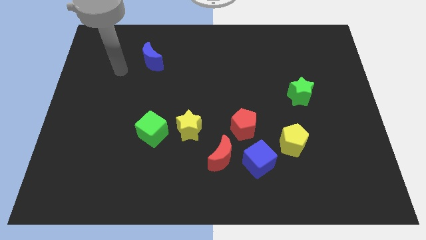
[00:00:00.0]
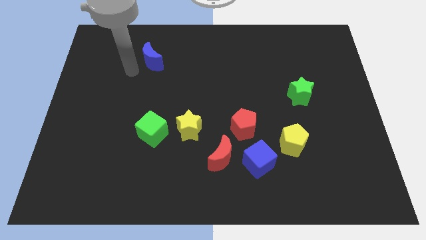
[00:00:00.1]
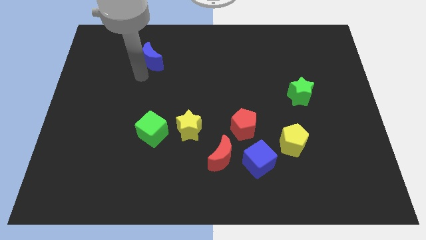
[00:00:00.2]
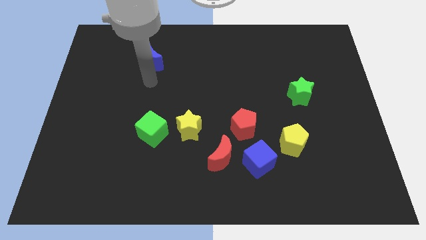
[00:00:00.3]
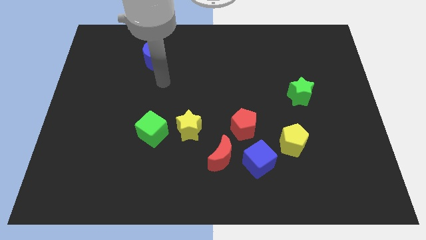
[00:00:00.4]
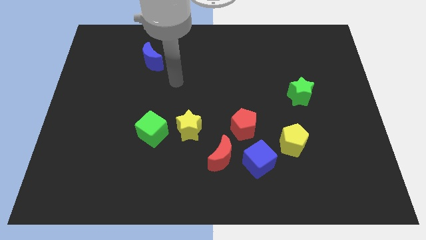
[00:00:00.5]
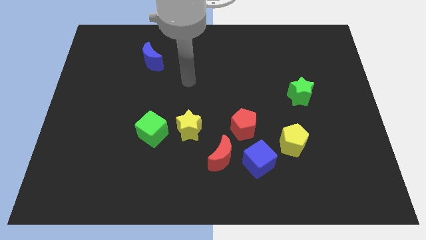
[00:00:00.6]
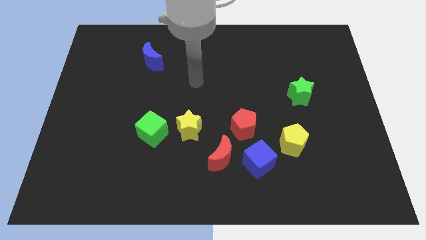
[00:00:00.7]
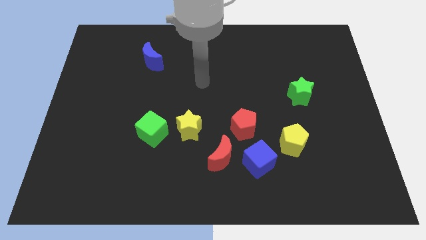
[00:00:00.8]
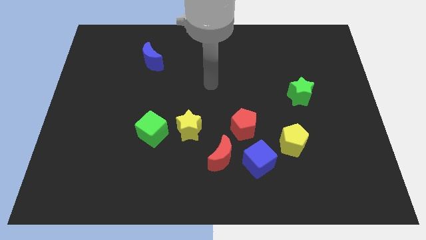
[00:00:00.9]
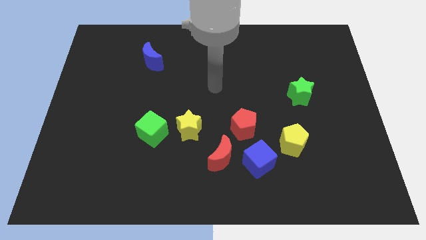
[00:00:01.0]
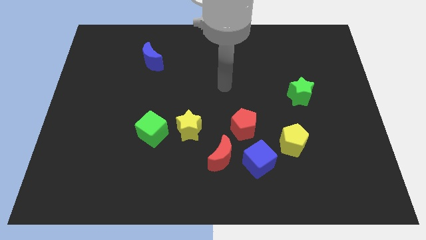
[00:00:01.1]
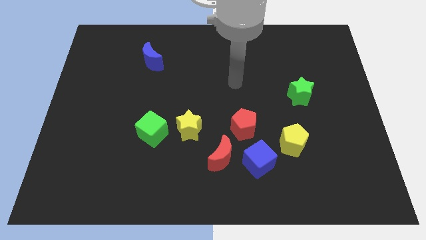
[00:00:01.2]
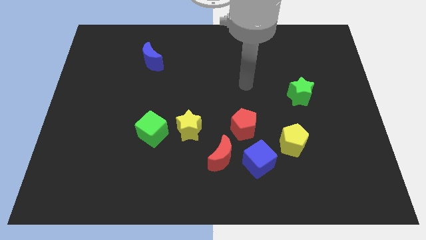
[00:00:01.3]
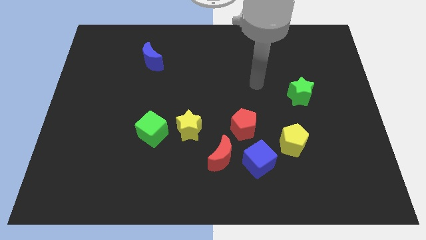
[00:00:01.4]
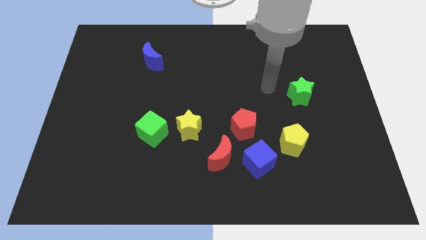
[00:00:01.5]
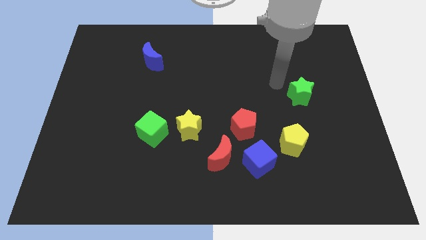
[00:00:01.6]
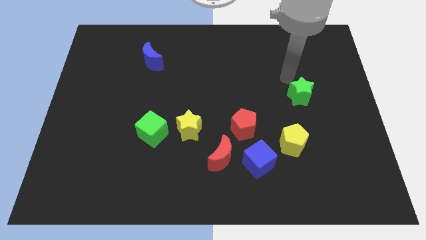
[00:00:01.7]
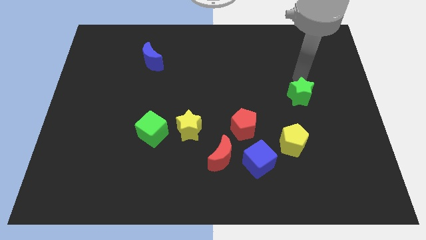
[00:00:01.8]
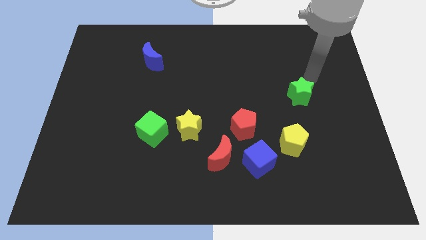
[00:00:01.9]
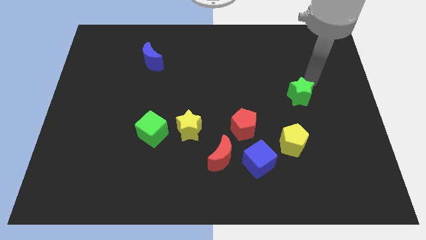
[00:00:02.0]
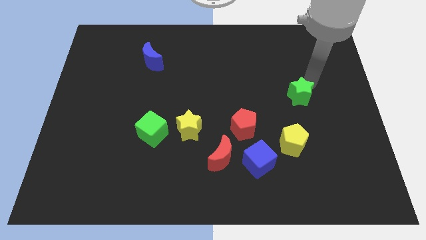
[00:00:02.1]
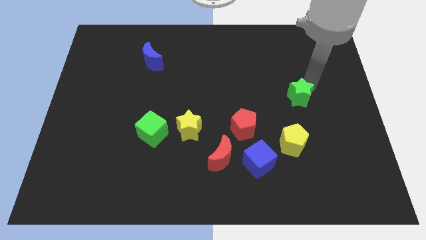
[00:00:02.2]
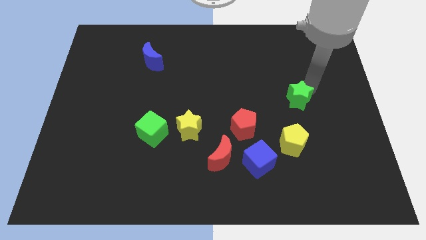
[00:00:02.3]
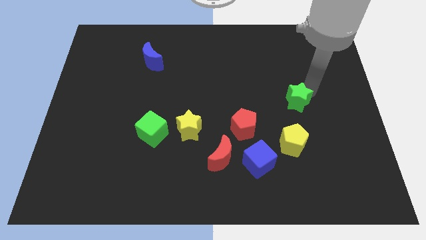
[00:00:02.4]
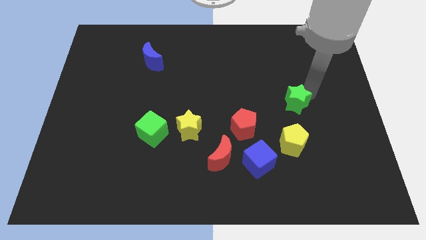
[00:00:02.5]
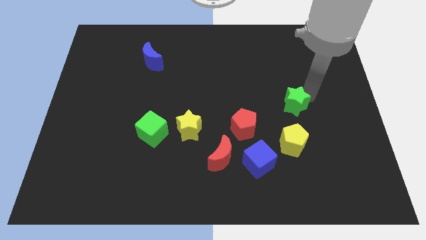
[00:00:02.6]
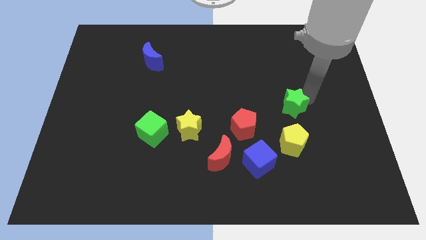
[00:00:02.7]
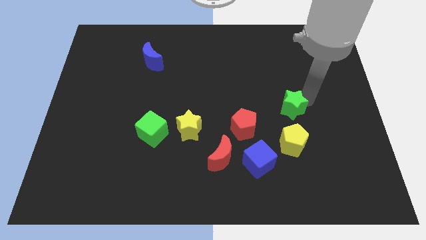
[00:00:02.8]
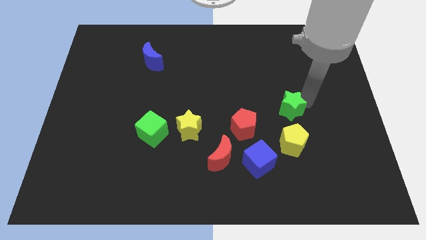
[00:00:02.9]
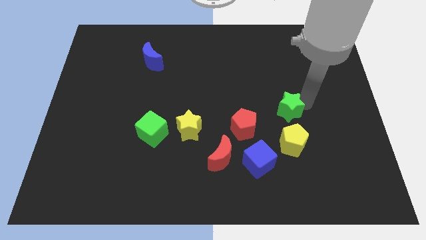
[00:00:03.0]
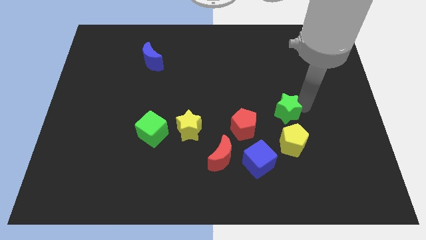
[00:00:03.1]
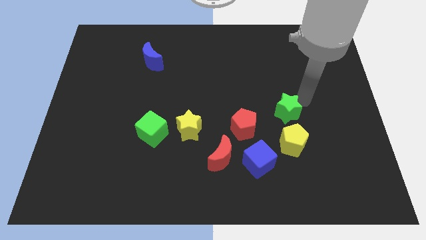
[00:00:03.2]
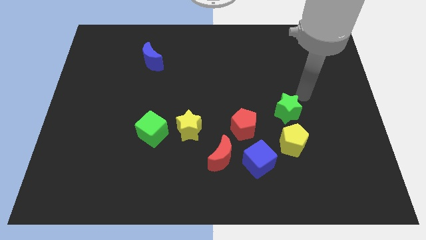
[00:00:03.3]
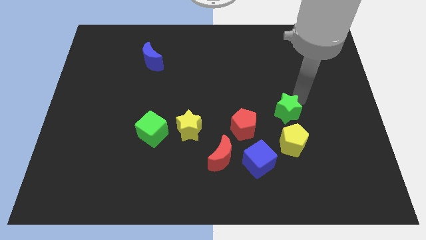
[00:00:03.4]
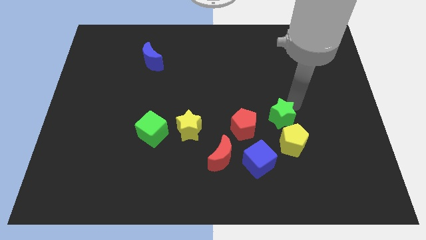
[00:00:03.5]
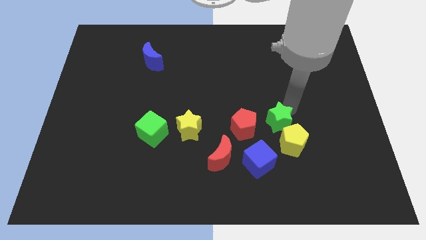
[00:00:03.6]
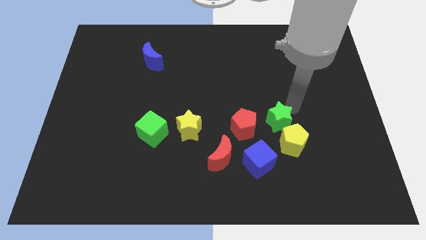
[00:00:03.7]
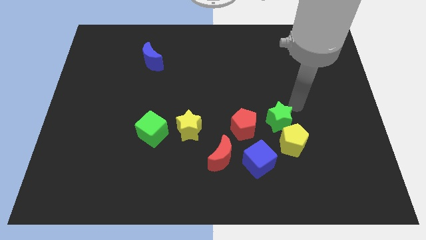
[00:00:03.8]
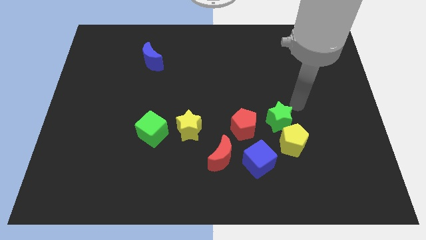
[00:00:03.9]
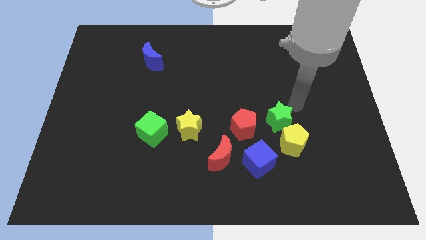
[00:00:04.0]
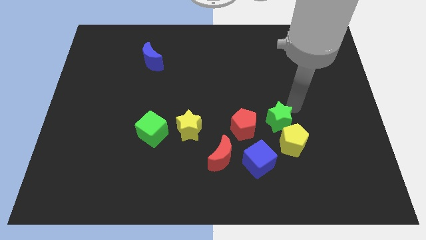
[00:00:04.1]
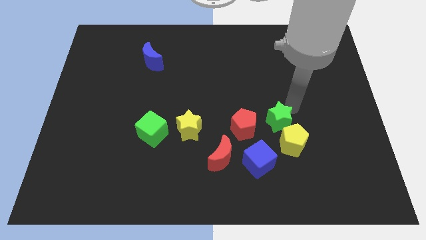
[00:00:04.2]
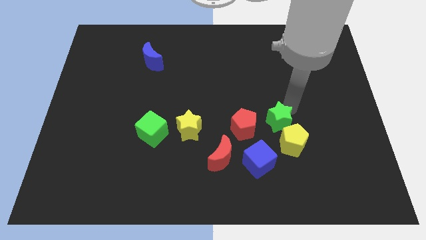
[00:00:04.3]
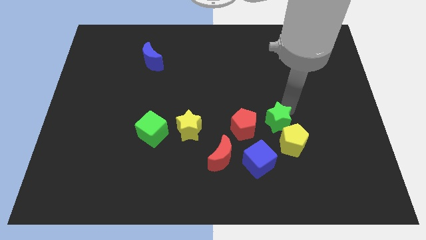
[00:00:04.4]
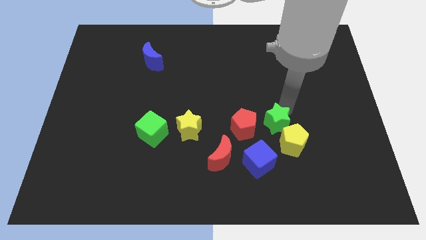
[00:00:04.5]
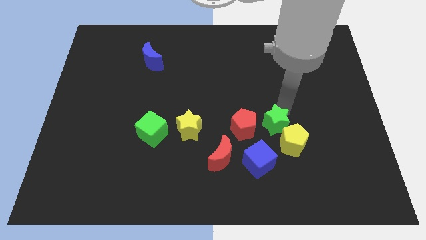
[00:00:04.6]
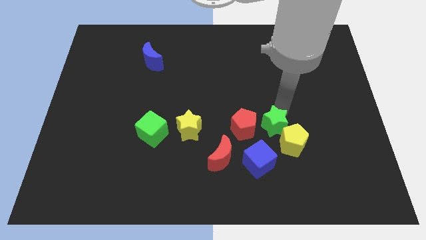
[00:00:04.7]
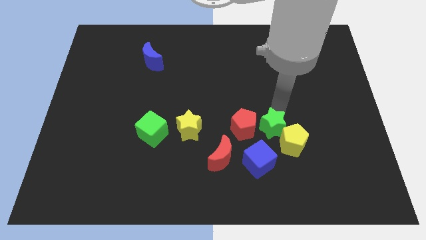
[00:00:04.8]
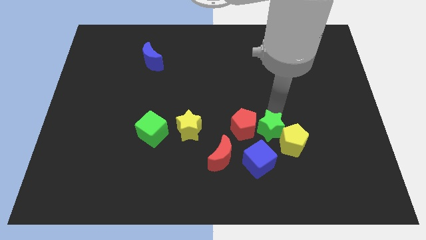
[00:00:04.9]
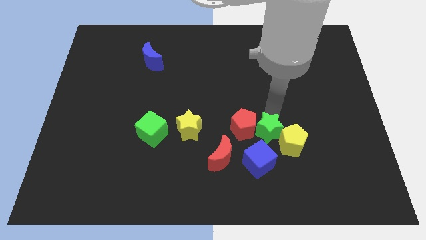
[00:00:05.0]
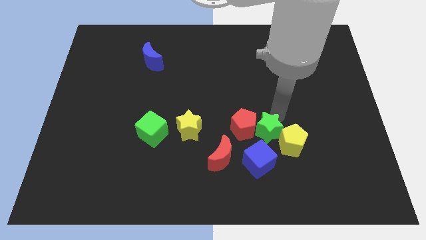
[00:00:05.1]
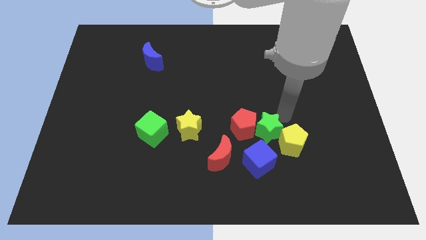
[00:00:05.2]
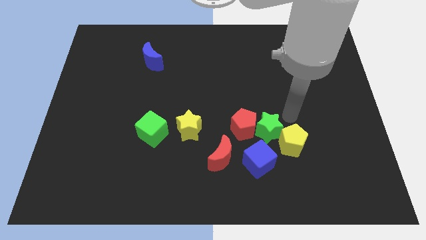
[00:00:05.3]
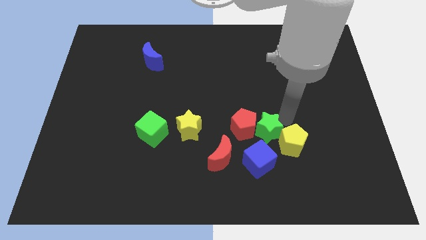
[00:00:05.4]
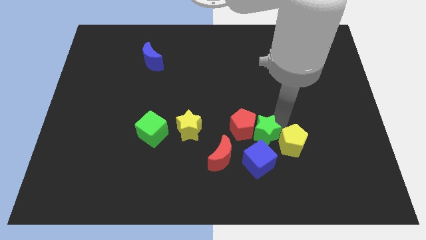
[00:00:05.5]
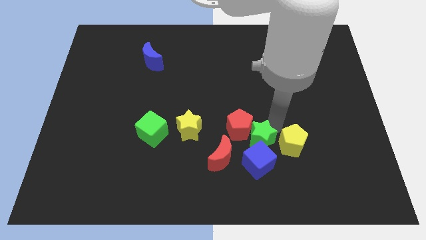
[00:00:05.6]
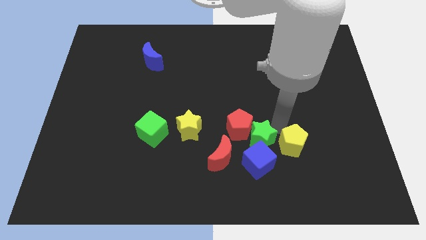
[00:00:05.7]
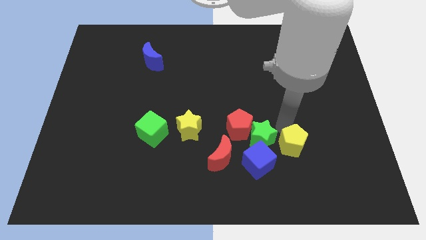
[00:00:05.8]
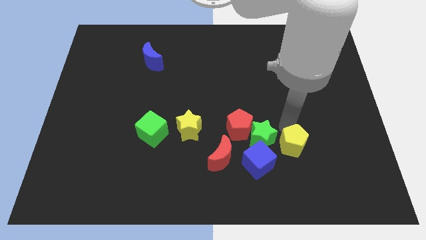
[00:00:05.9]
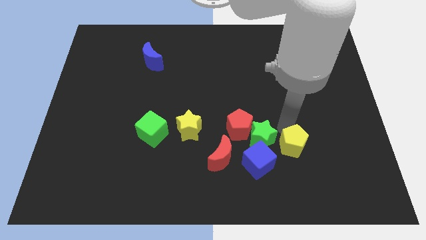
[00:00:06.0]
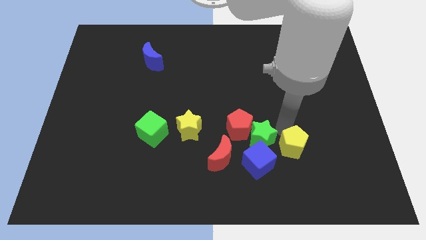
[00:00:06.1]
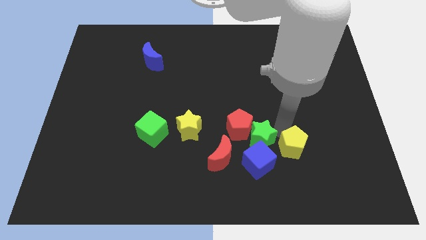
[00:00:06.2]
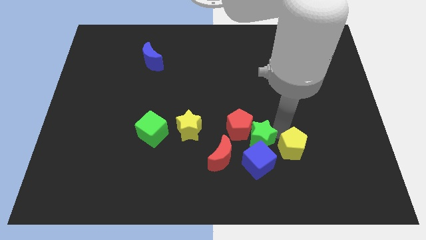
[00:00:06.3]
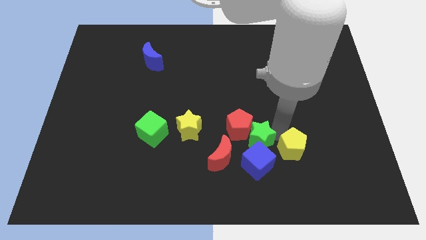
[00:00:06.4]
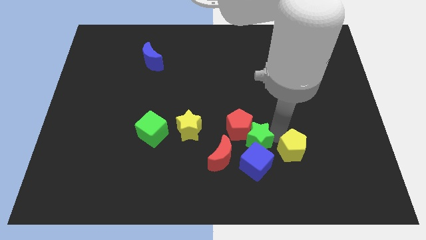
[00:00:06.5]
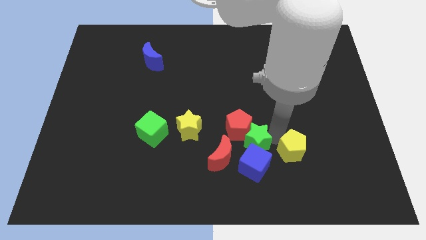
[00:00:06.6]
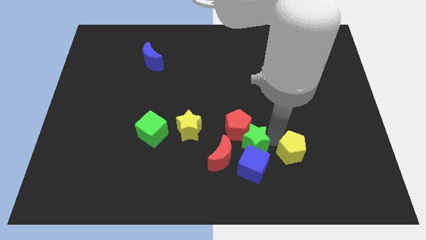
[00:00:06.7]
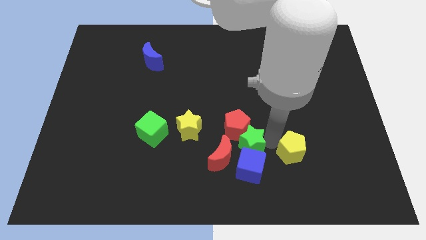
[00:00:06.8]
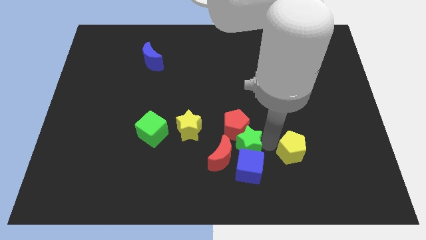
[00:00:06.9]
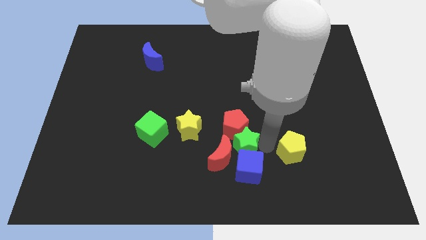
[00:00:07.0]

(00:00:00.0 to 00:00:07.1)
slide the green star close to the red moon

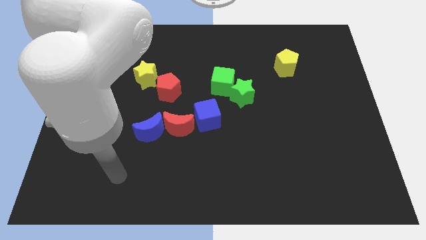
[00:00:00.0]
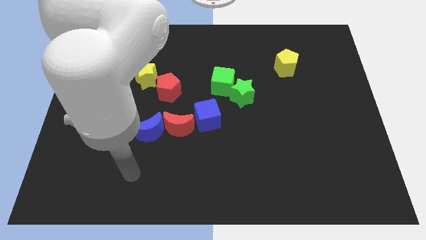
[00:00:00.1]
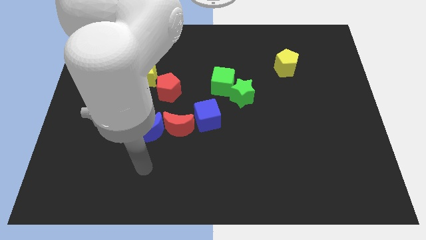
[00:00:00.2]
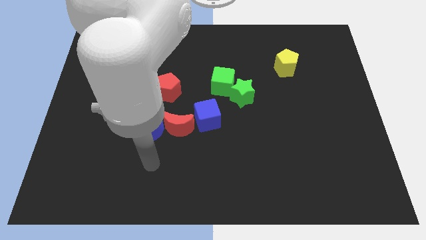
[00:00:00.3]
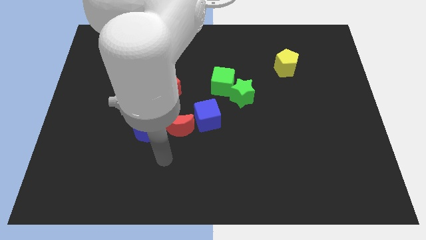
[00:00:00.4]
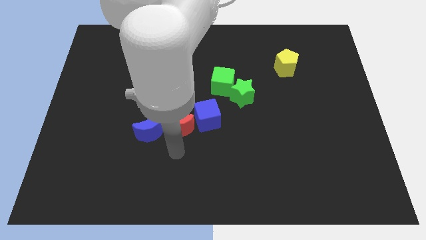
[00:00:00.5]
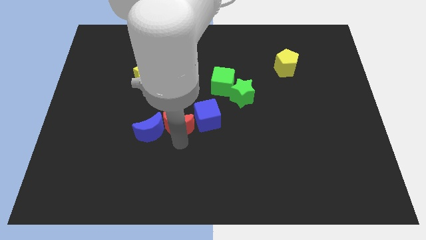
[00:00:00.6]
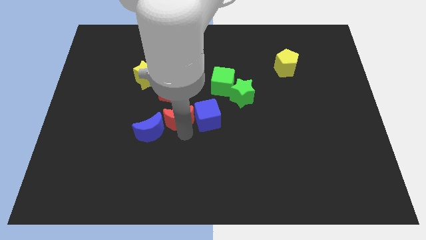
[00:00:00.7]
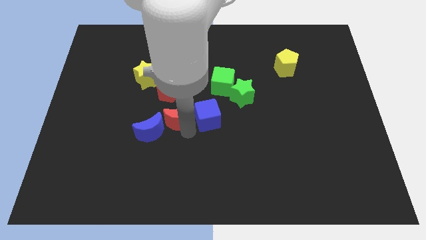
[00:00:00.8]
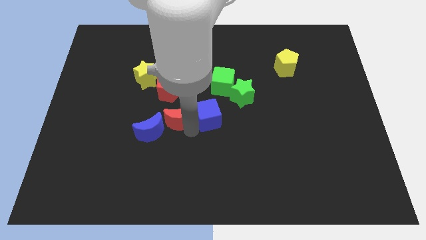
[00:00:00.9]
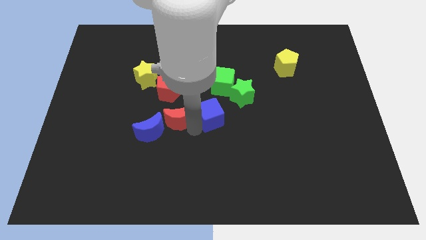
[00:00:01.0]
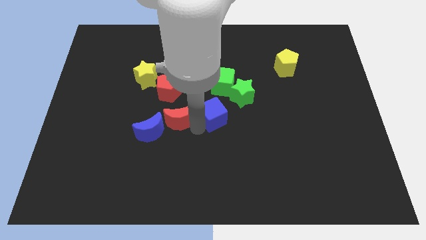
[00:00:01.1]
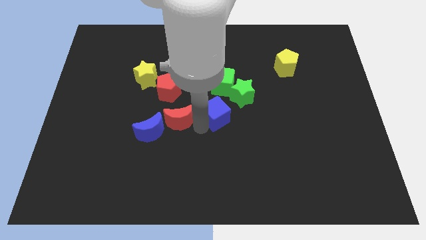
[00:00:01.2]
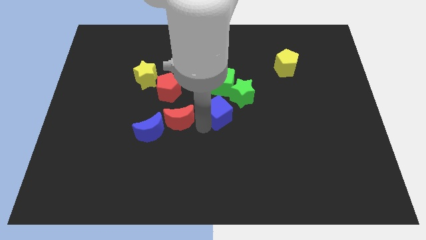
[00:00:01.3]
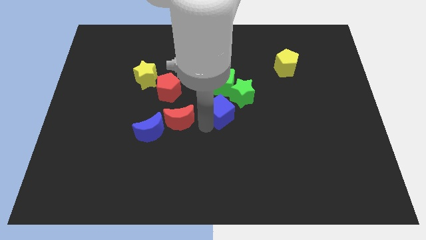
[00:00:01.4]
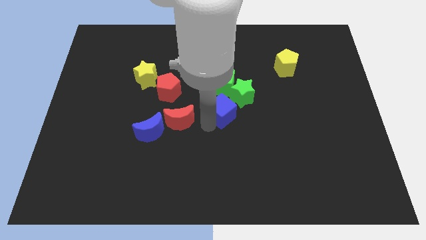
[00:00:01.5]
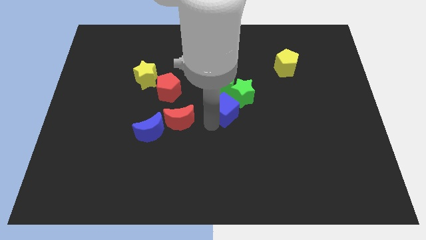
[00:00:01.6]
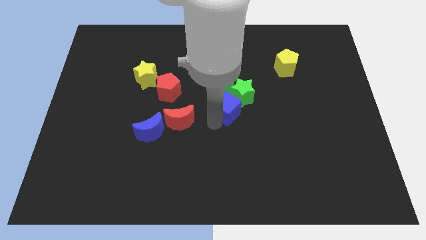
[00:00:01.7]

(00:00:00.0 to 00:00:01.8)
put the blue cube next to the green star
